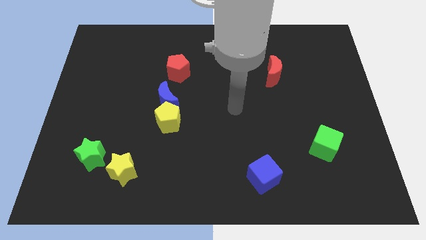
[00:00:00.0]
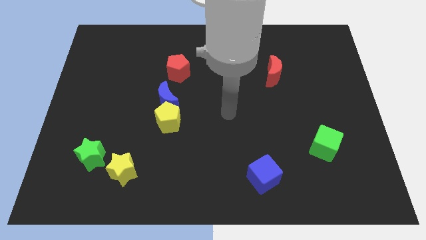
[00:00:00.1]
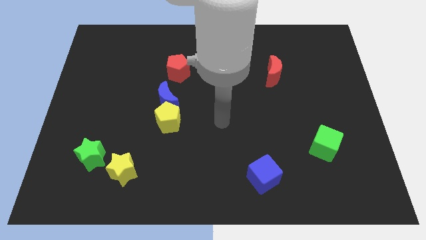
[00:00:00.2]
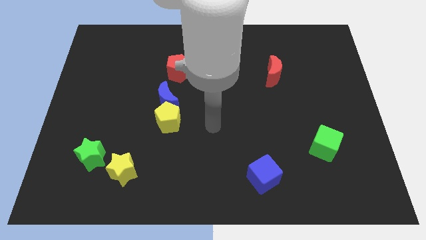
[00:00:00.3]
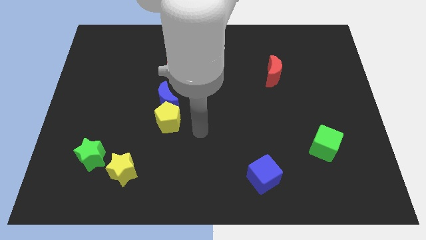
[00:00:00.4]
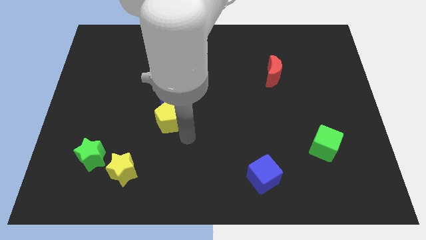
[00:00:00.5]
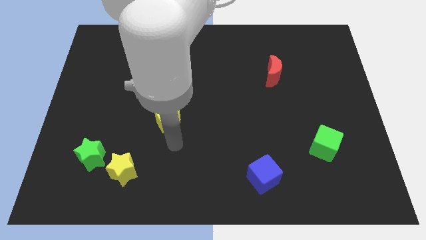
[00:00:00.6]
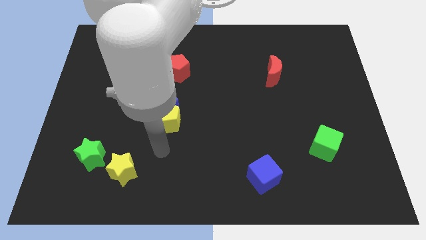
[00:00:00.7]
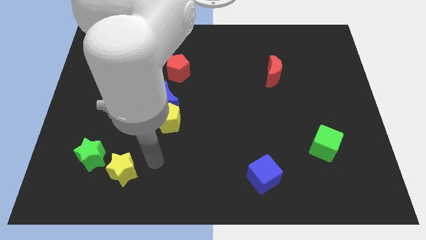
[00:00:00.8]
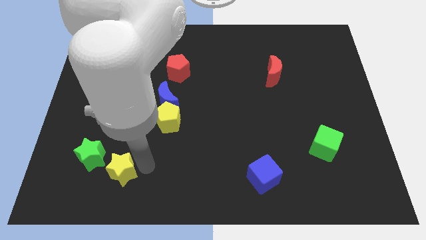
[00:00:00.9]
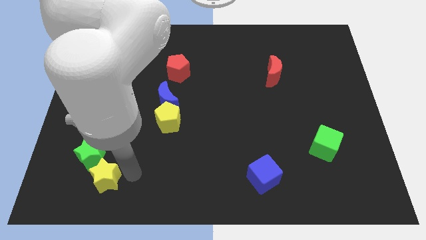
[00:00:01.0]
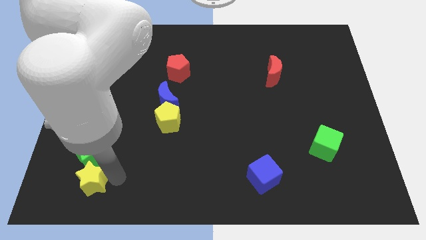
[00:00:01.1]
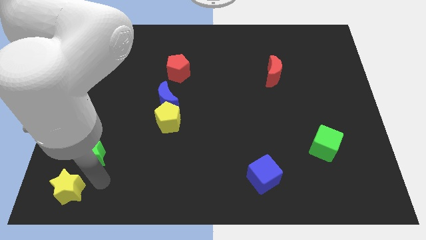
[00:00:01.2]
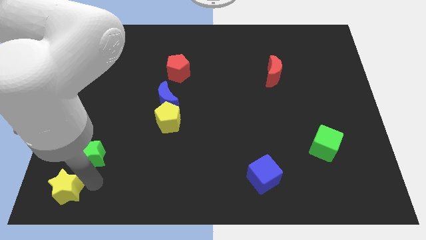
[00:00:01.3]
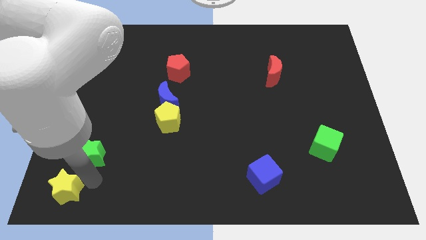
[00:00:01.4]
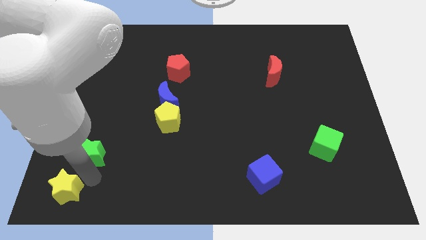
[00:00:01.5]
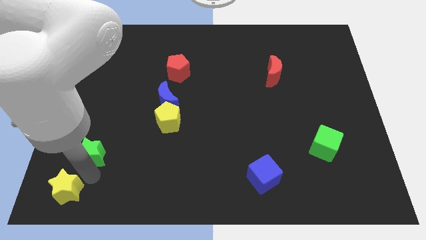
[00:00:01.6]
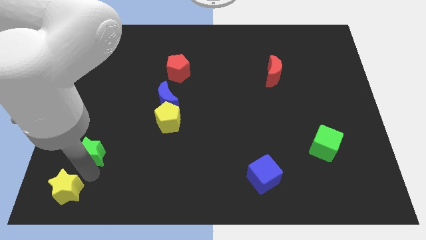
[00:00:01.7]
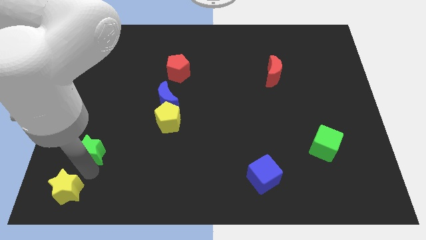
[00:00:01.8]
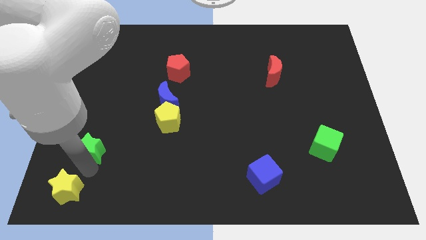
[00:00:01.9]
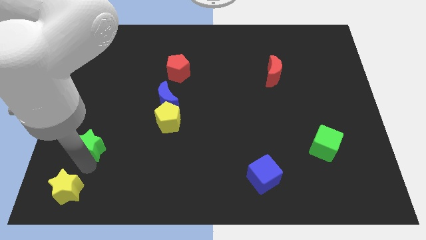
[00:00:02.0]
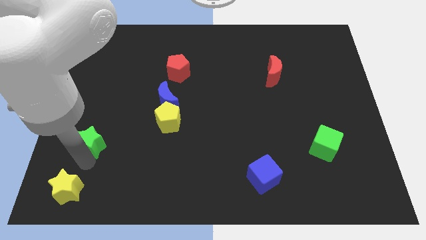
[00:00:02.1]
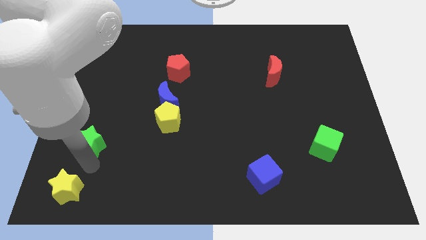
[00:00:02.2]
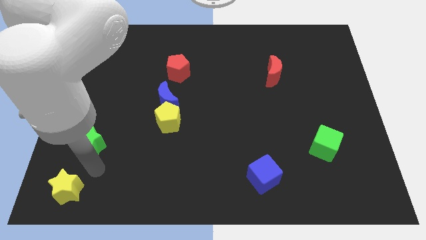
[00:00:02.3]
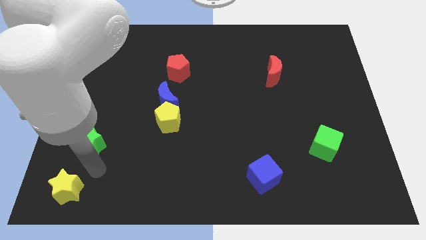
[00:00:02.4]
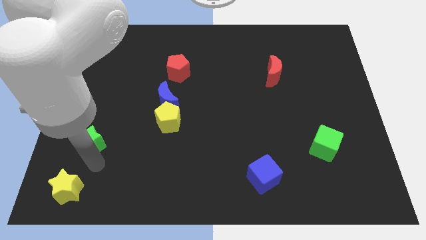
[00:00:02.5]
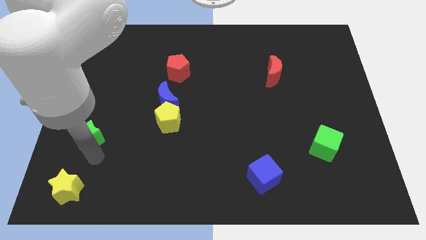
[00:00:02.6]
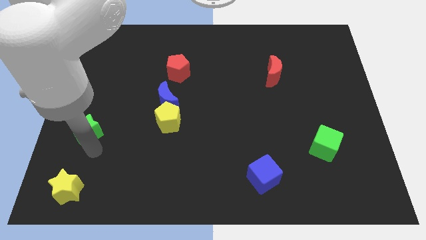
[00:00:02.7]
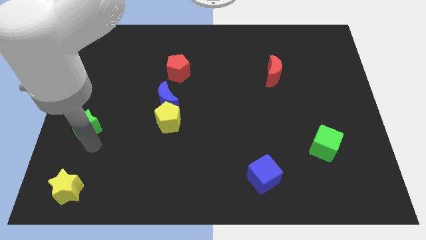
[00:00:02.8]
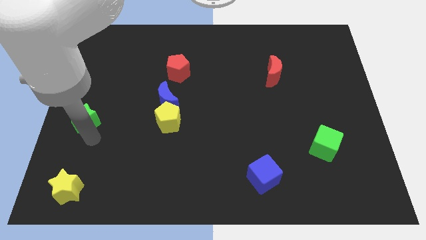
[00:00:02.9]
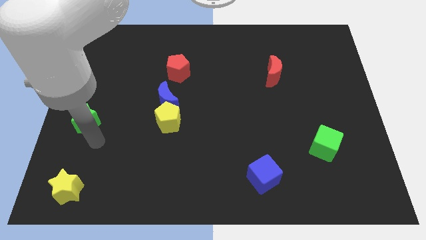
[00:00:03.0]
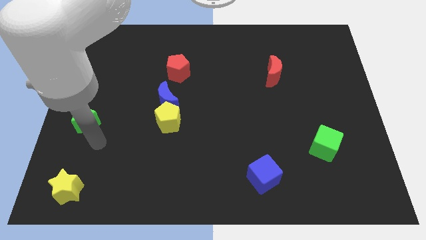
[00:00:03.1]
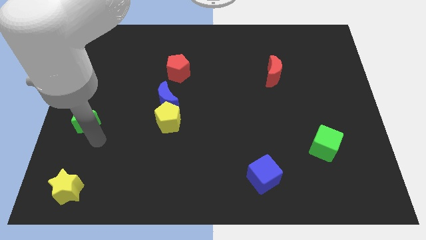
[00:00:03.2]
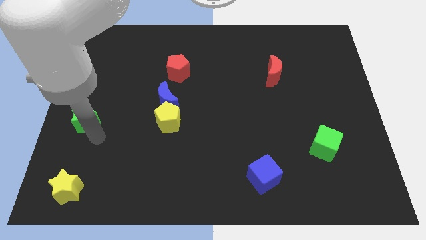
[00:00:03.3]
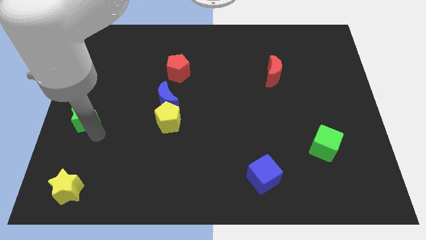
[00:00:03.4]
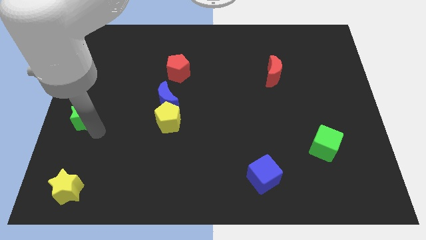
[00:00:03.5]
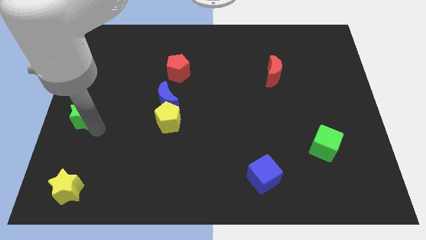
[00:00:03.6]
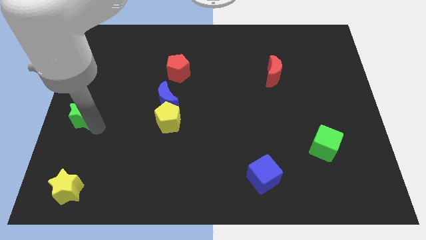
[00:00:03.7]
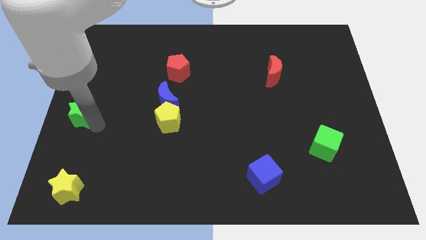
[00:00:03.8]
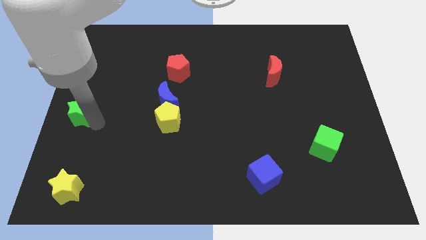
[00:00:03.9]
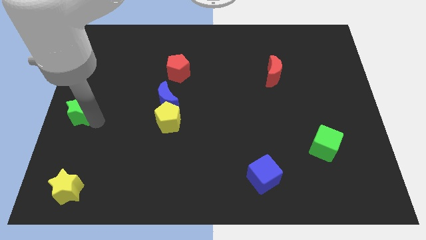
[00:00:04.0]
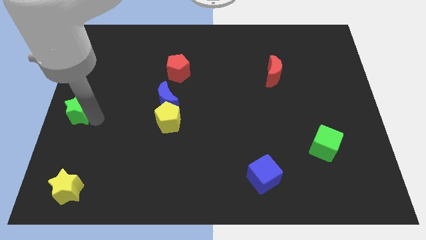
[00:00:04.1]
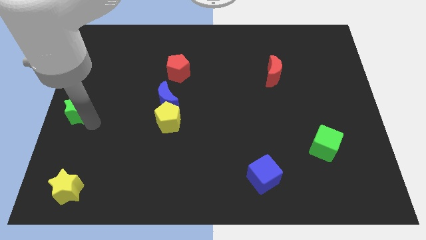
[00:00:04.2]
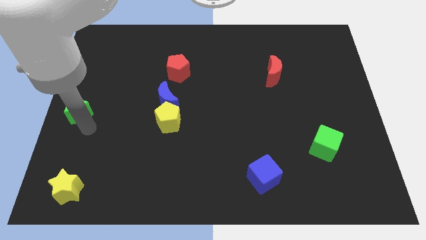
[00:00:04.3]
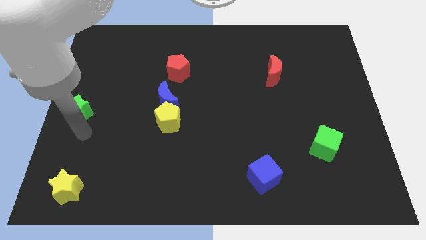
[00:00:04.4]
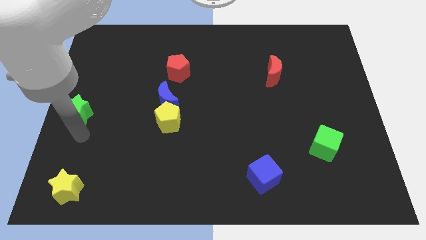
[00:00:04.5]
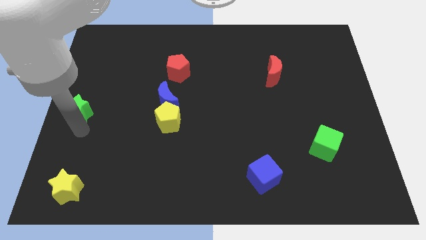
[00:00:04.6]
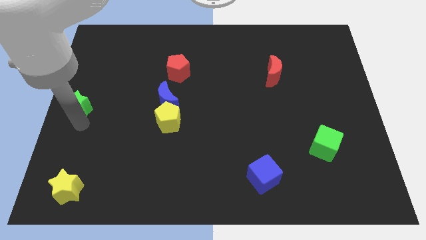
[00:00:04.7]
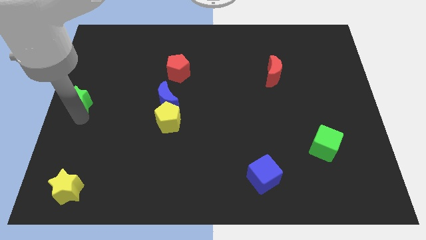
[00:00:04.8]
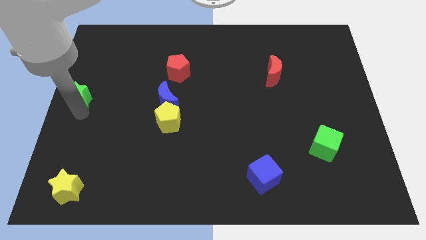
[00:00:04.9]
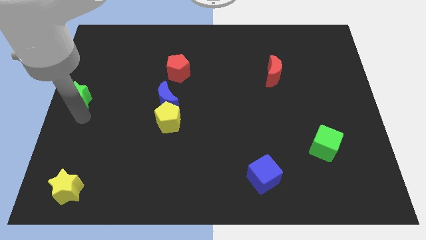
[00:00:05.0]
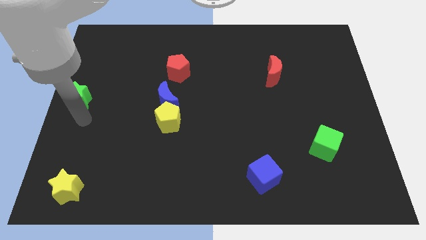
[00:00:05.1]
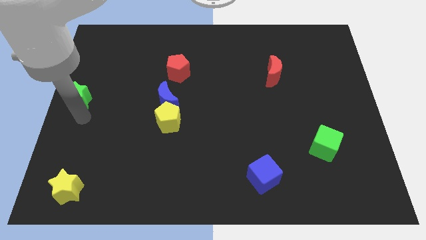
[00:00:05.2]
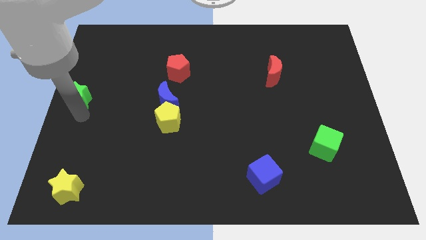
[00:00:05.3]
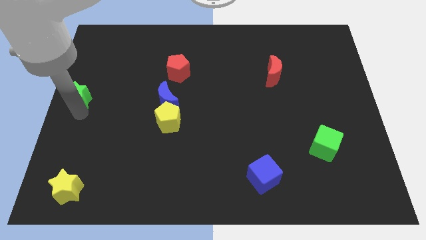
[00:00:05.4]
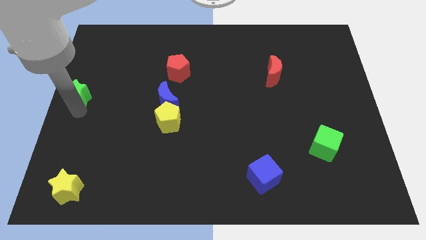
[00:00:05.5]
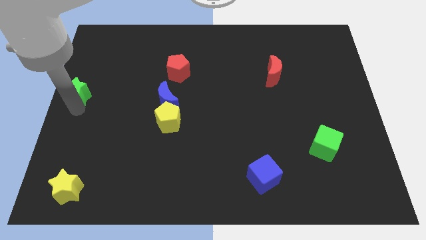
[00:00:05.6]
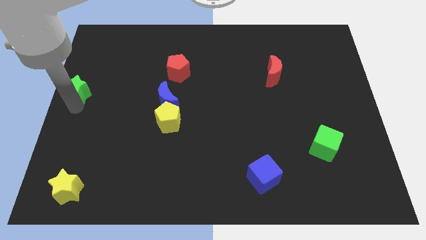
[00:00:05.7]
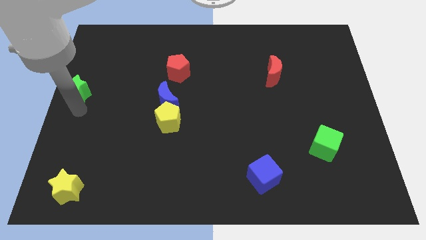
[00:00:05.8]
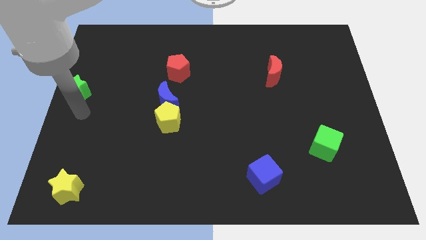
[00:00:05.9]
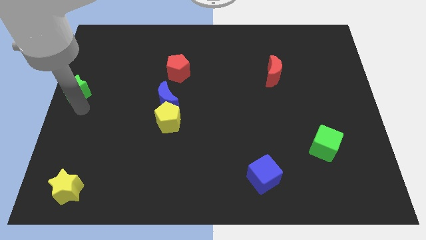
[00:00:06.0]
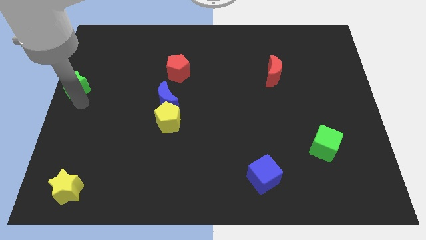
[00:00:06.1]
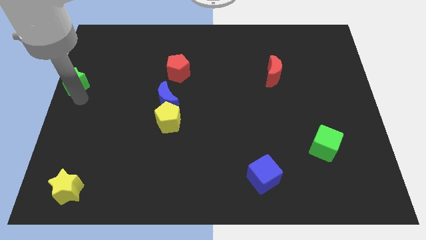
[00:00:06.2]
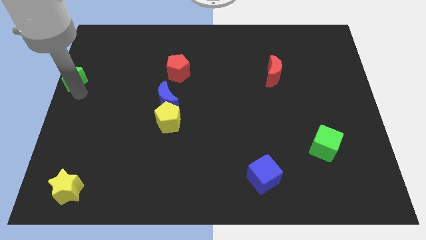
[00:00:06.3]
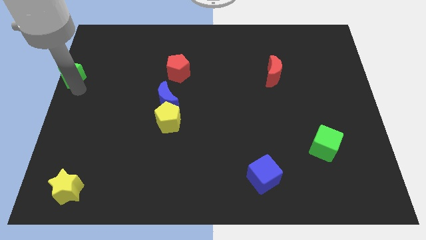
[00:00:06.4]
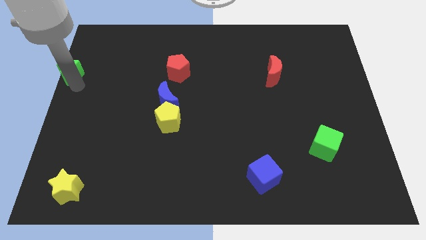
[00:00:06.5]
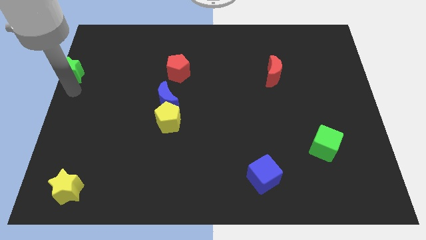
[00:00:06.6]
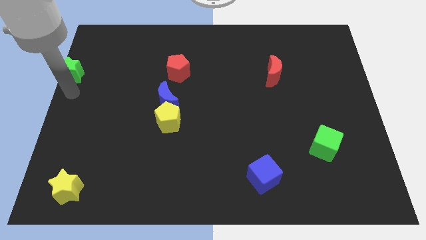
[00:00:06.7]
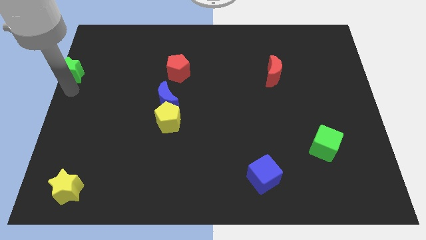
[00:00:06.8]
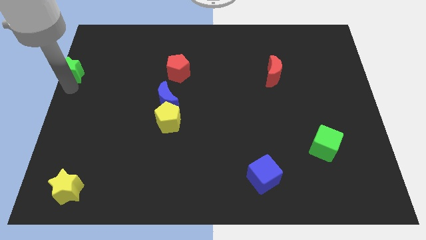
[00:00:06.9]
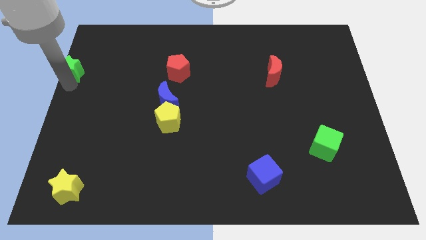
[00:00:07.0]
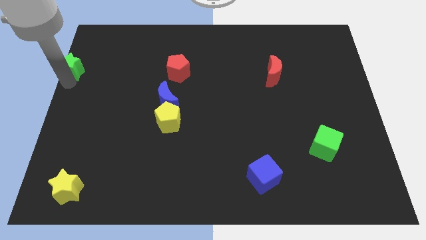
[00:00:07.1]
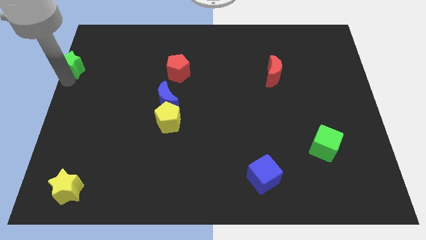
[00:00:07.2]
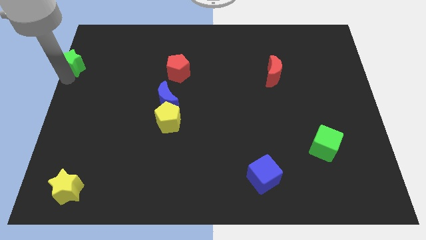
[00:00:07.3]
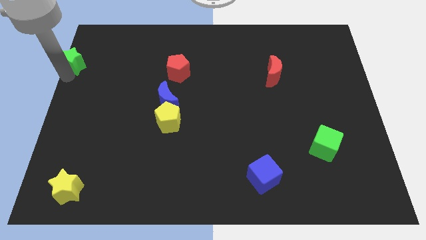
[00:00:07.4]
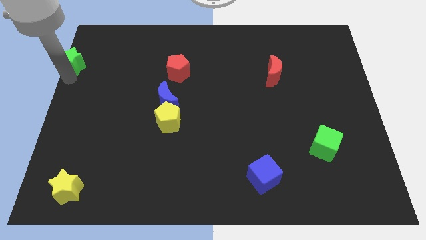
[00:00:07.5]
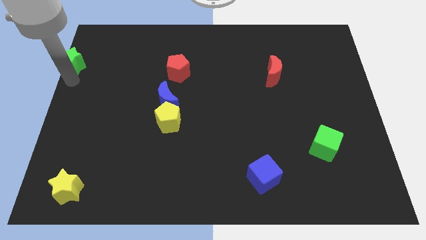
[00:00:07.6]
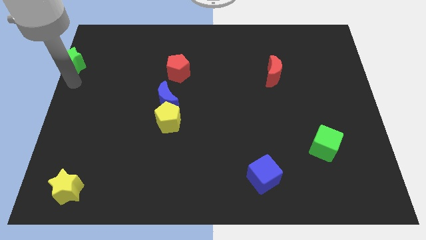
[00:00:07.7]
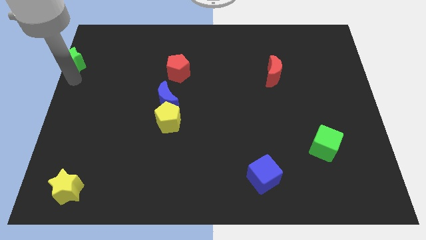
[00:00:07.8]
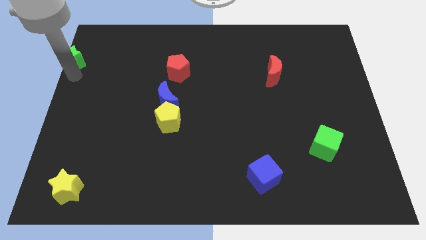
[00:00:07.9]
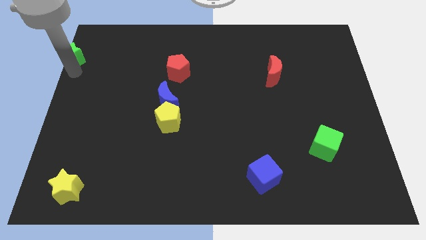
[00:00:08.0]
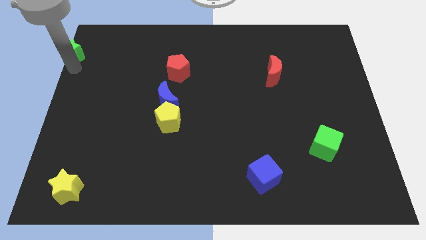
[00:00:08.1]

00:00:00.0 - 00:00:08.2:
move the green star to the top left corner
